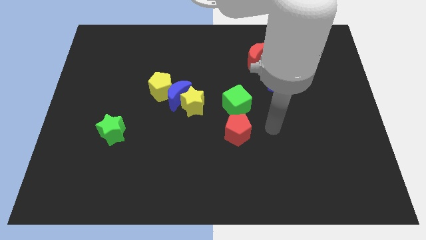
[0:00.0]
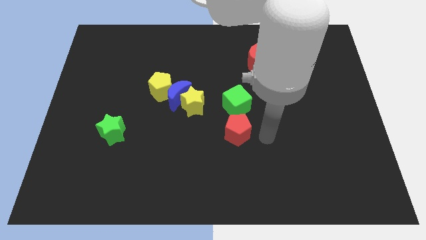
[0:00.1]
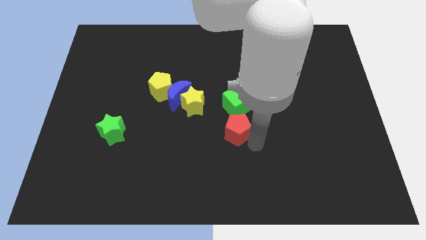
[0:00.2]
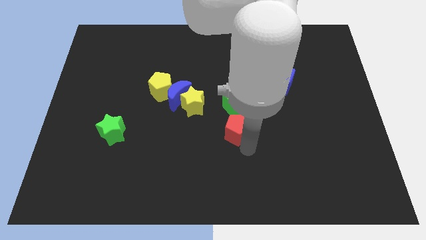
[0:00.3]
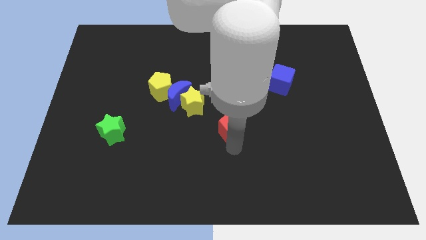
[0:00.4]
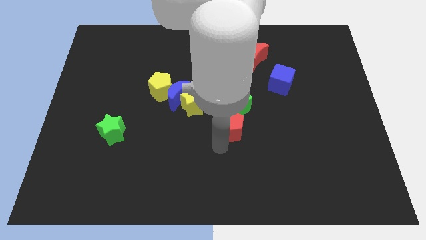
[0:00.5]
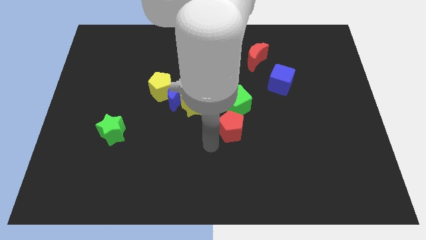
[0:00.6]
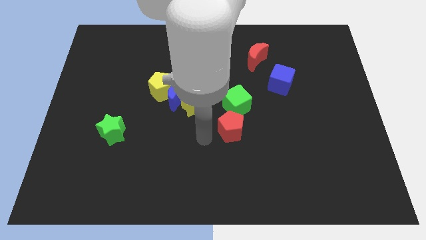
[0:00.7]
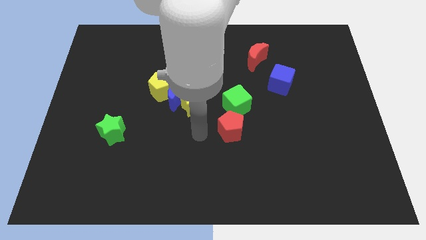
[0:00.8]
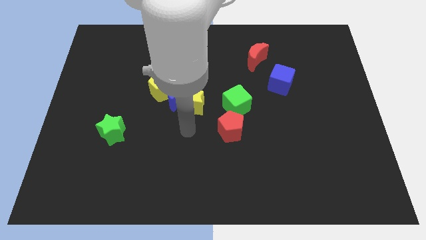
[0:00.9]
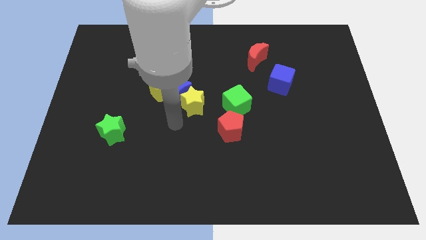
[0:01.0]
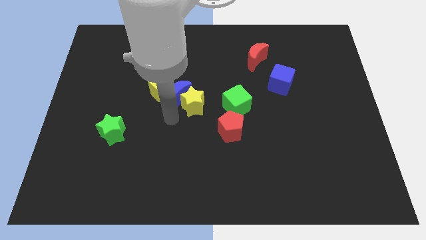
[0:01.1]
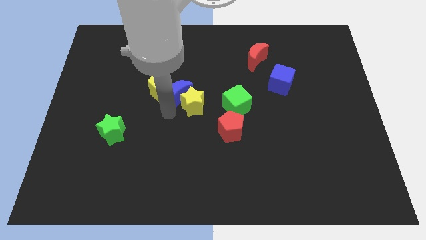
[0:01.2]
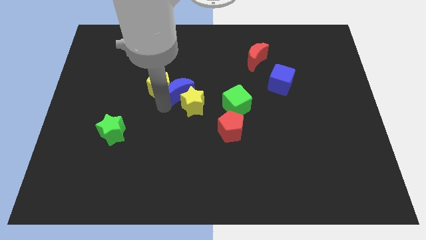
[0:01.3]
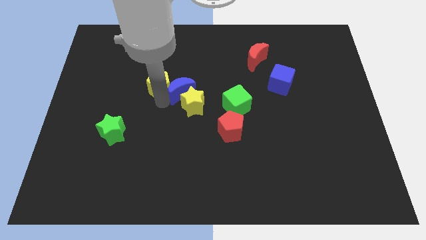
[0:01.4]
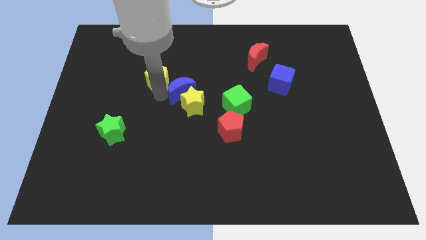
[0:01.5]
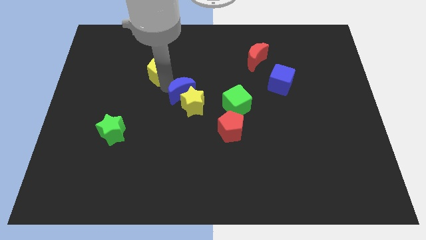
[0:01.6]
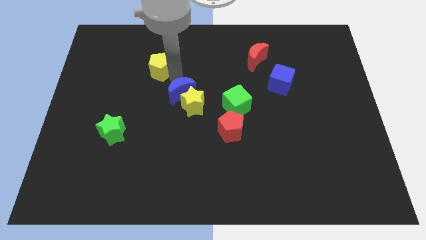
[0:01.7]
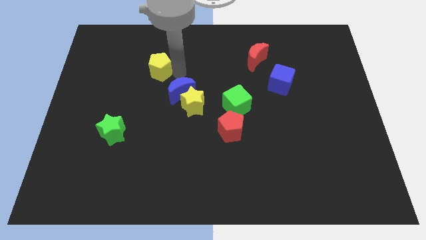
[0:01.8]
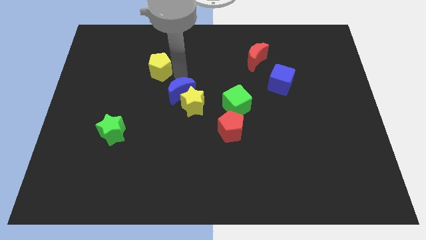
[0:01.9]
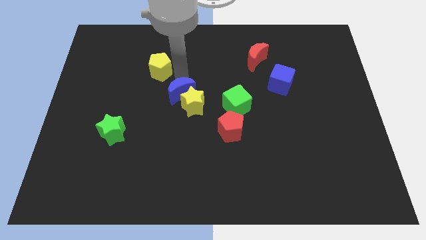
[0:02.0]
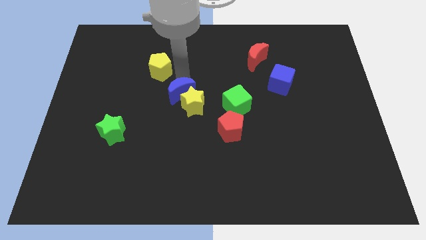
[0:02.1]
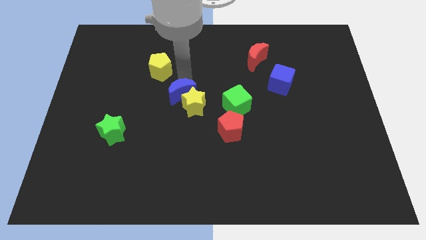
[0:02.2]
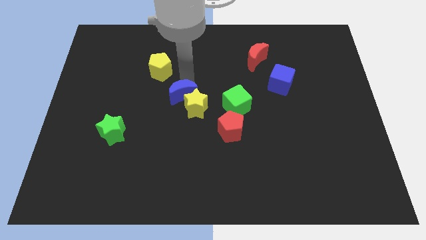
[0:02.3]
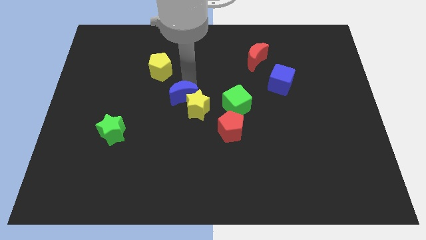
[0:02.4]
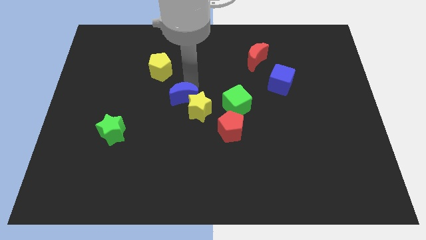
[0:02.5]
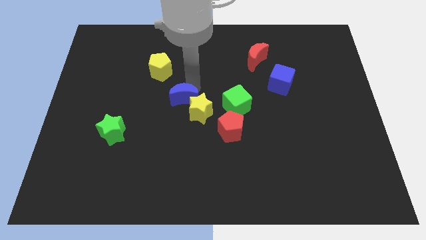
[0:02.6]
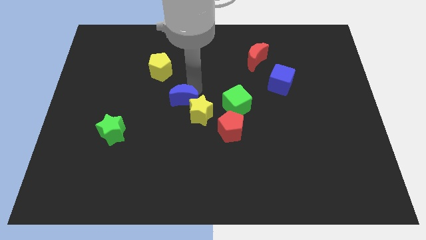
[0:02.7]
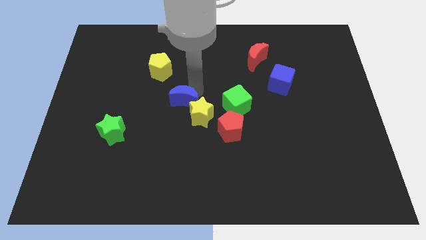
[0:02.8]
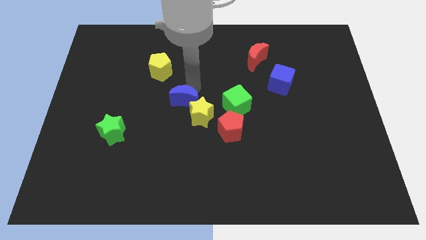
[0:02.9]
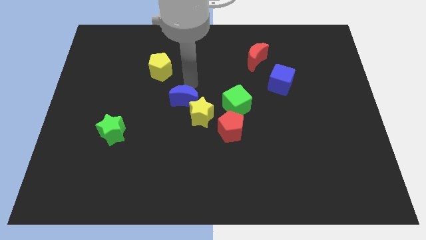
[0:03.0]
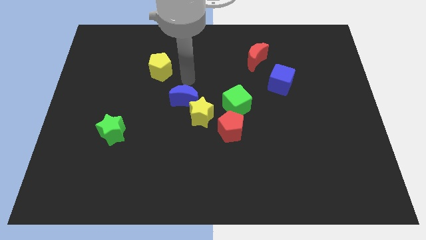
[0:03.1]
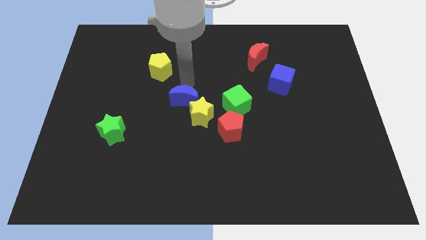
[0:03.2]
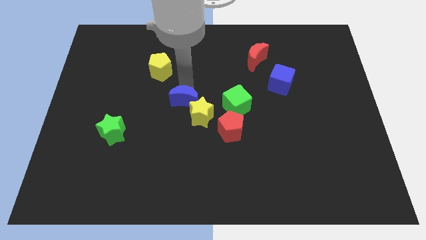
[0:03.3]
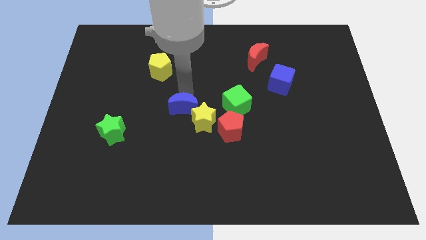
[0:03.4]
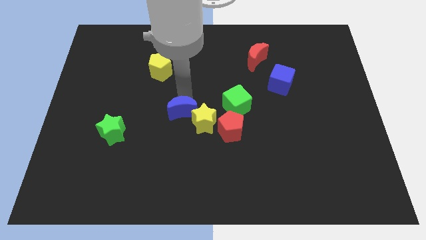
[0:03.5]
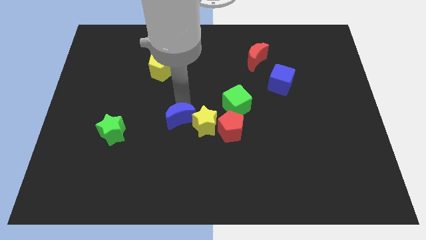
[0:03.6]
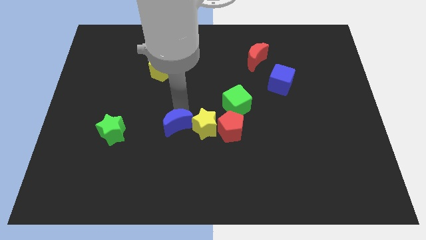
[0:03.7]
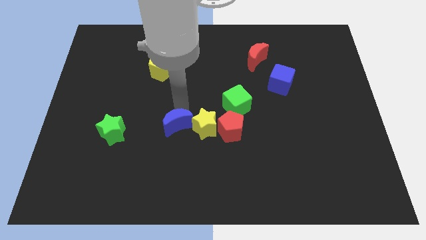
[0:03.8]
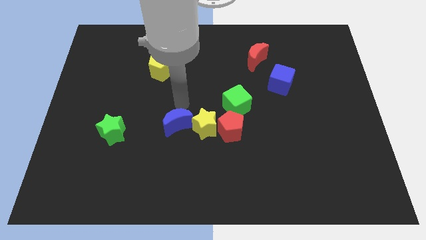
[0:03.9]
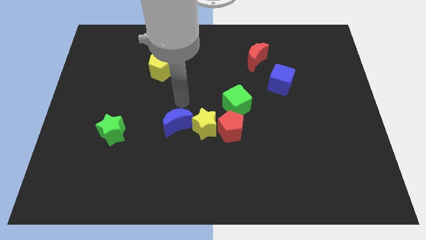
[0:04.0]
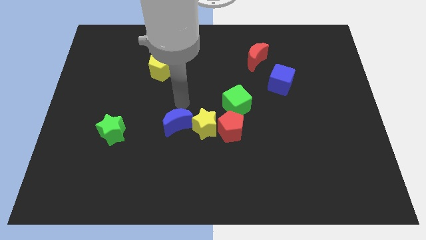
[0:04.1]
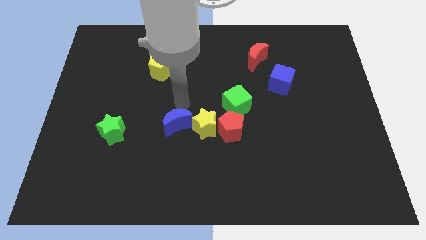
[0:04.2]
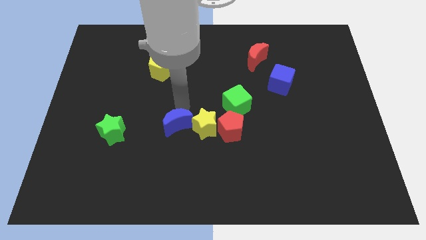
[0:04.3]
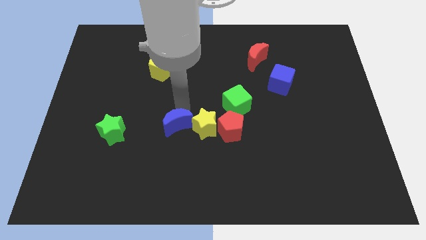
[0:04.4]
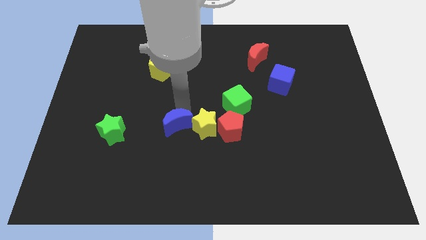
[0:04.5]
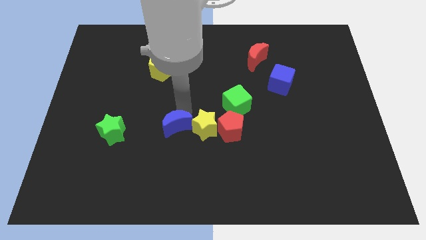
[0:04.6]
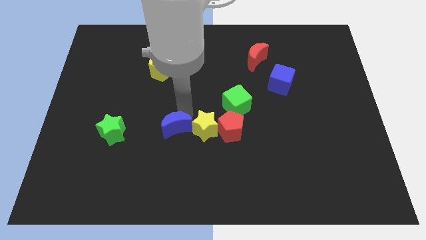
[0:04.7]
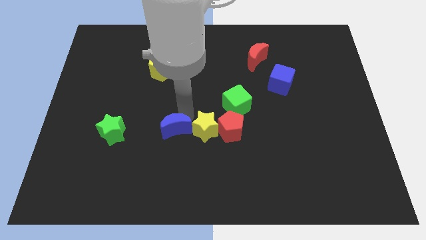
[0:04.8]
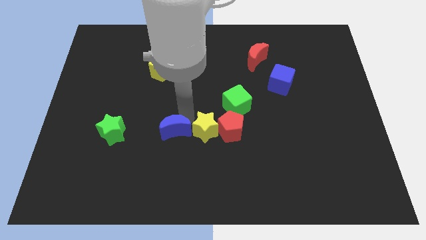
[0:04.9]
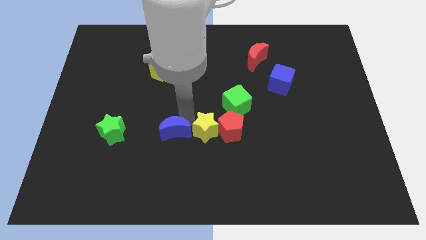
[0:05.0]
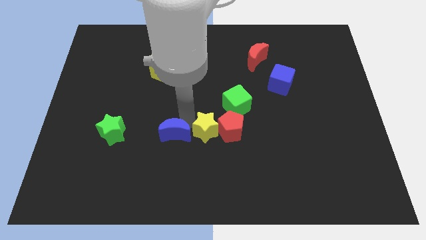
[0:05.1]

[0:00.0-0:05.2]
move the blue moon away from the yellow star and yellow pentagon

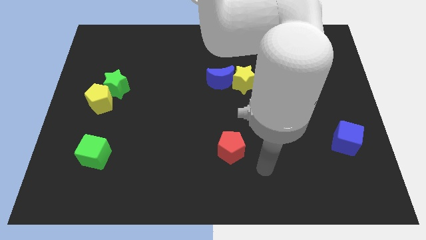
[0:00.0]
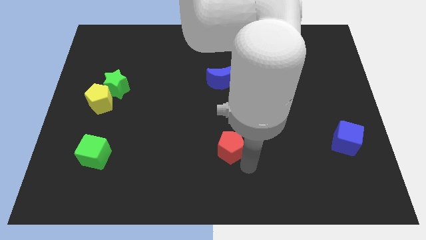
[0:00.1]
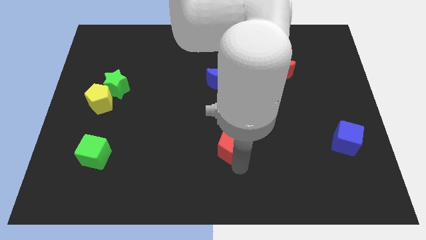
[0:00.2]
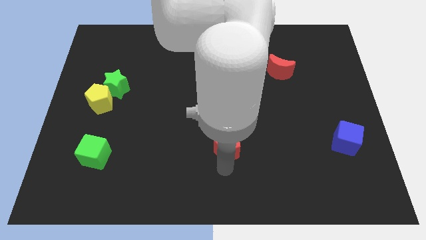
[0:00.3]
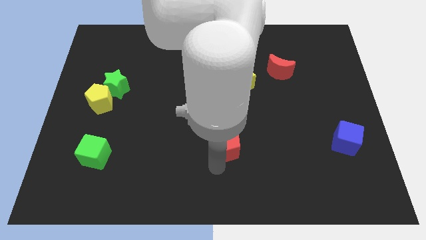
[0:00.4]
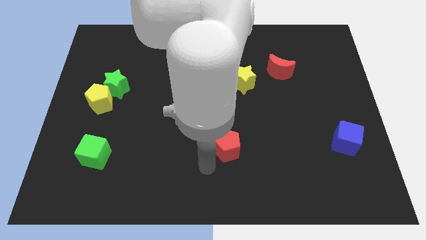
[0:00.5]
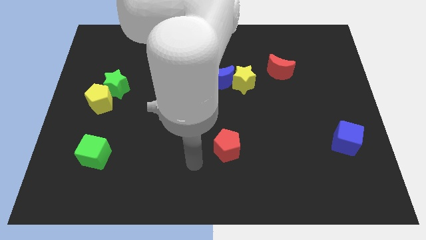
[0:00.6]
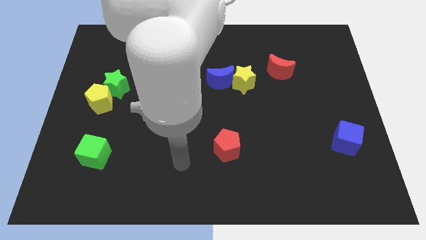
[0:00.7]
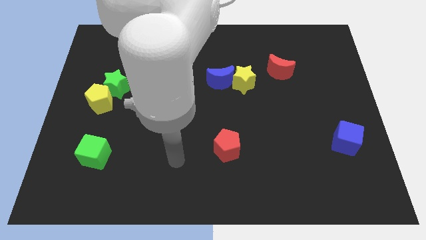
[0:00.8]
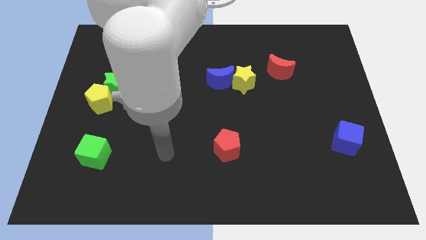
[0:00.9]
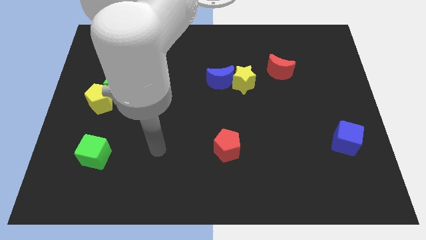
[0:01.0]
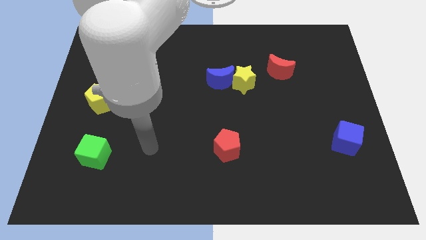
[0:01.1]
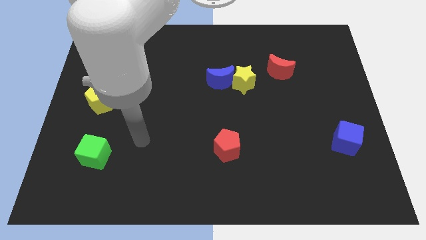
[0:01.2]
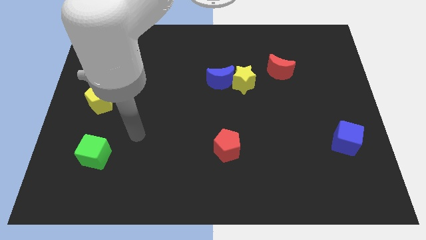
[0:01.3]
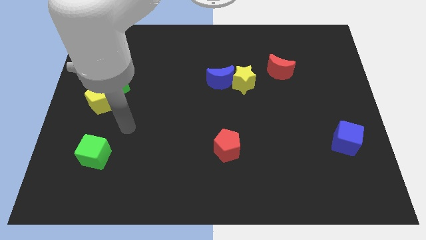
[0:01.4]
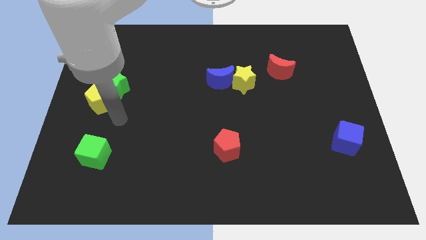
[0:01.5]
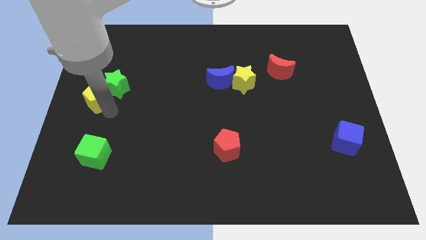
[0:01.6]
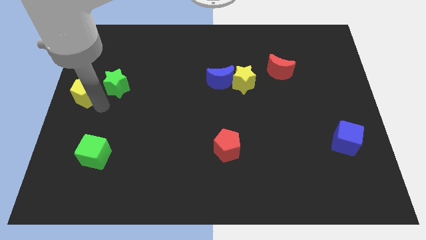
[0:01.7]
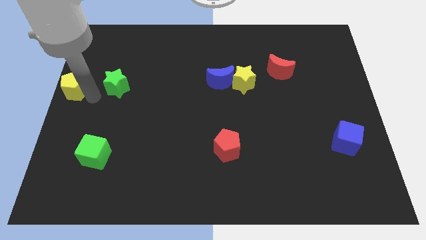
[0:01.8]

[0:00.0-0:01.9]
move the green star away from the yellow pentagon

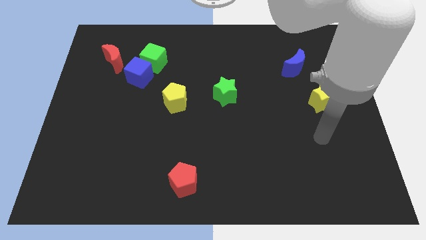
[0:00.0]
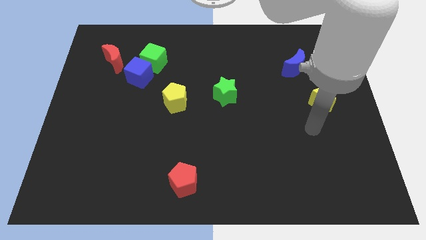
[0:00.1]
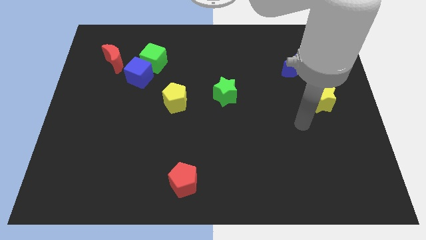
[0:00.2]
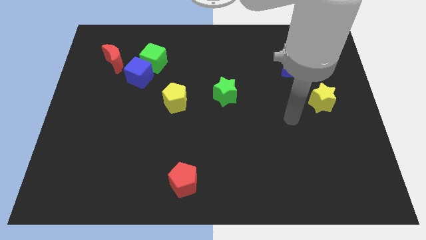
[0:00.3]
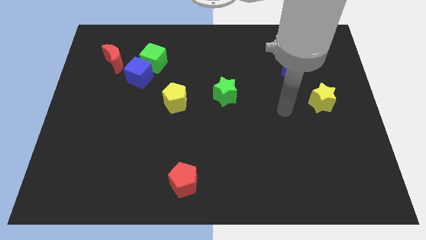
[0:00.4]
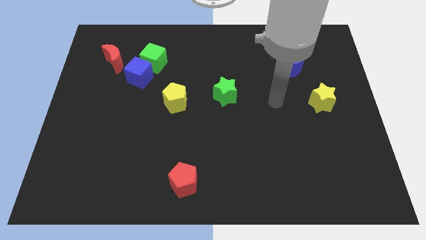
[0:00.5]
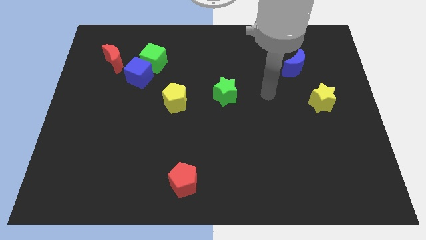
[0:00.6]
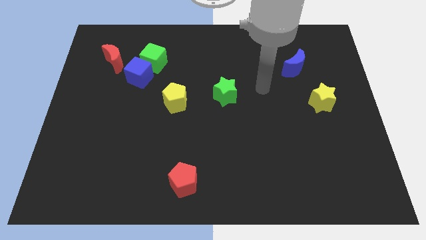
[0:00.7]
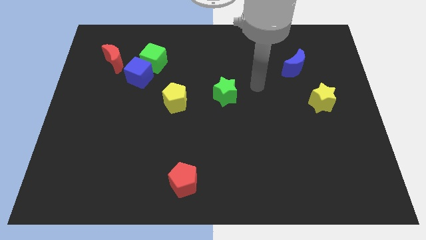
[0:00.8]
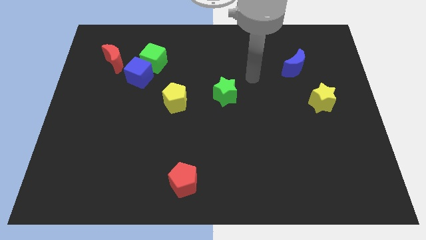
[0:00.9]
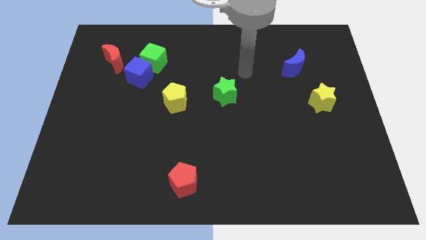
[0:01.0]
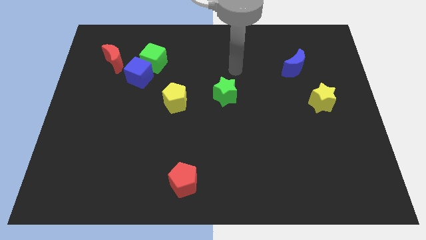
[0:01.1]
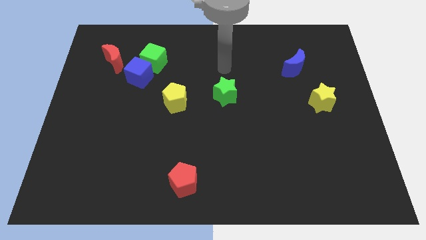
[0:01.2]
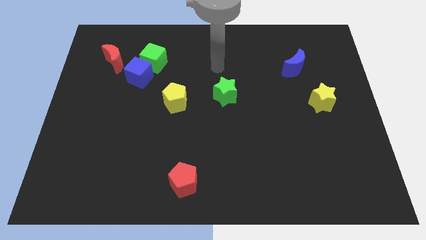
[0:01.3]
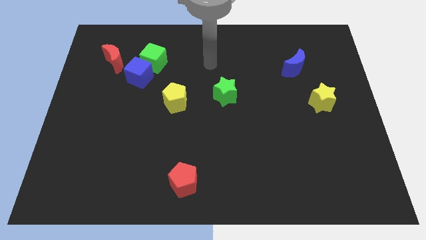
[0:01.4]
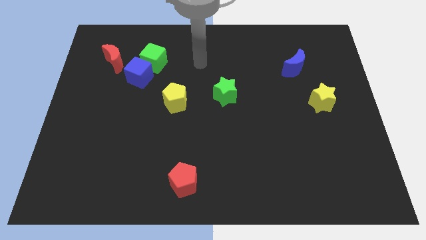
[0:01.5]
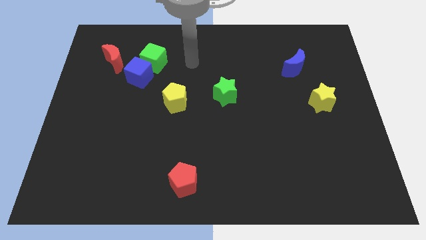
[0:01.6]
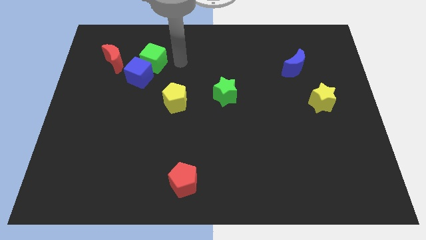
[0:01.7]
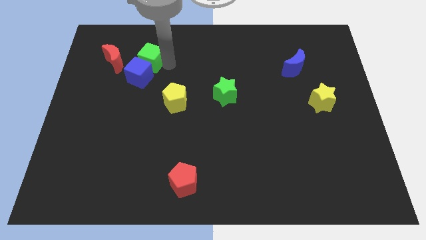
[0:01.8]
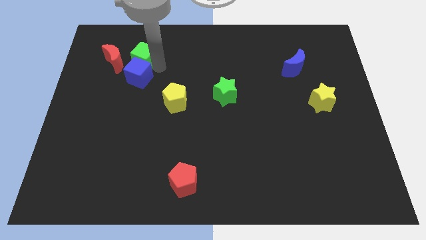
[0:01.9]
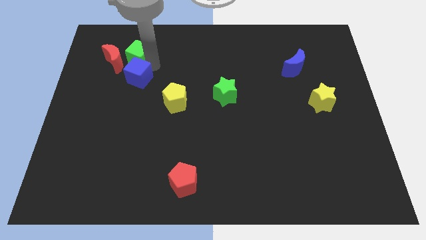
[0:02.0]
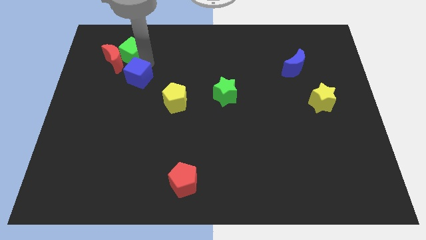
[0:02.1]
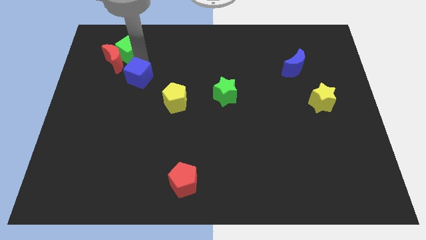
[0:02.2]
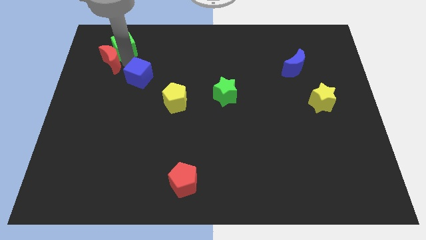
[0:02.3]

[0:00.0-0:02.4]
separate the blue cube from the green cube and red moon
